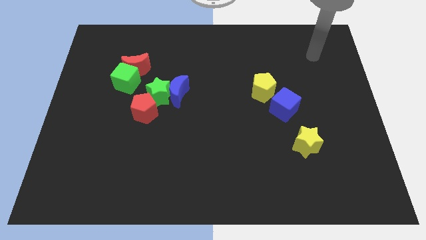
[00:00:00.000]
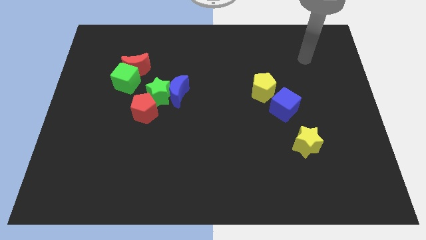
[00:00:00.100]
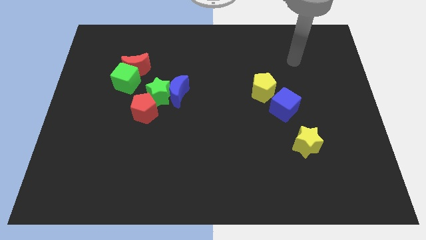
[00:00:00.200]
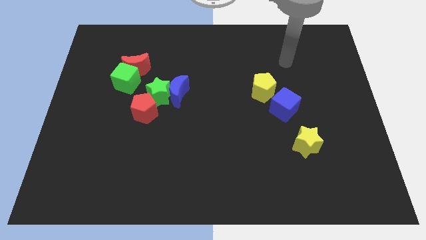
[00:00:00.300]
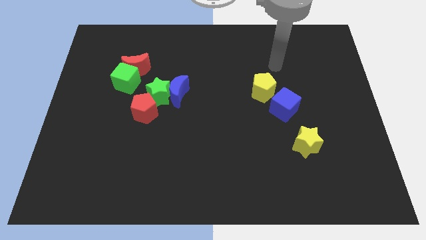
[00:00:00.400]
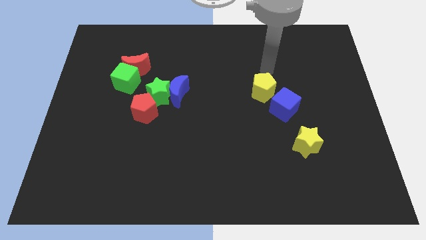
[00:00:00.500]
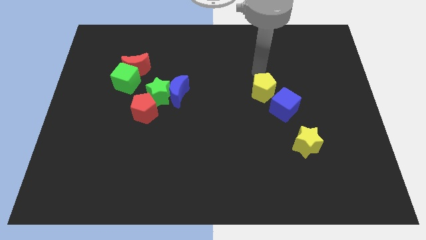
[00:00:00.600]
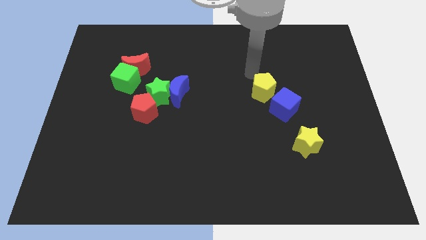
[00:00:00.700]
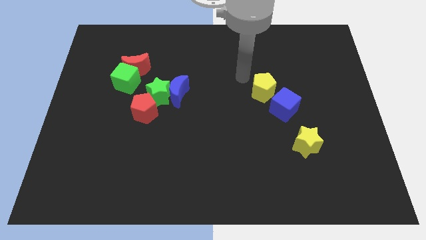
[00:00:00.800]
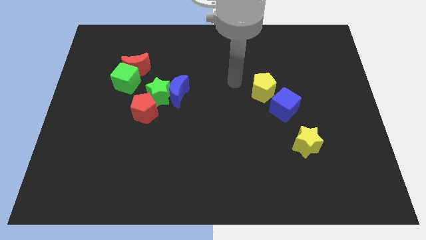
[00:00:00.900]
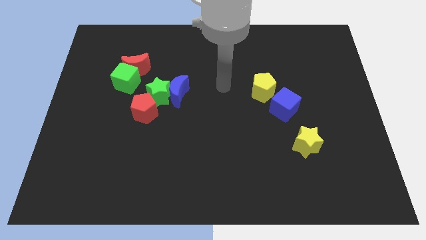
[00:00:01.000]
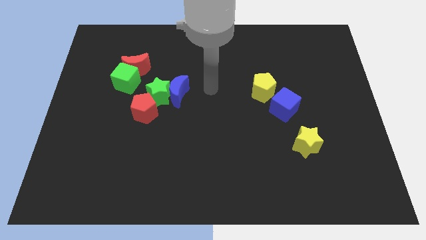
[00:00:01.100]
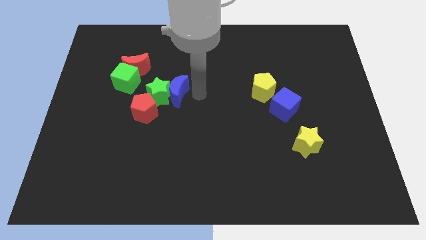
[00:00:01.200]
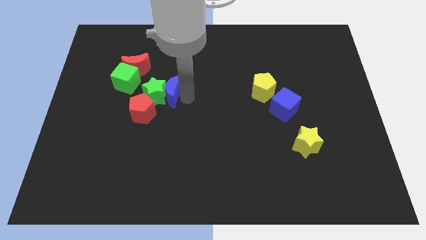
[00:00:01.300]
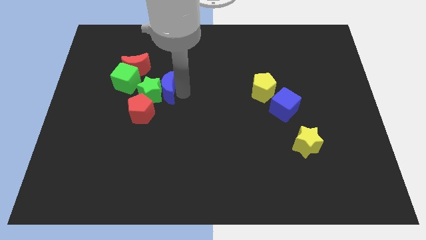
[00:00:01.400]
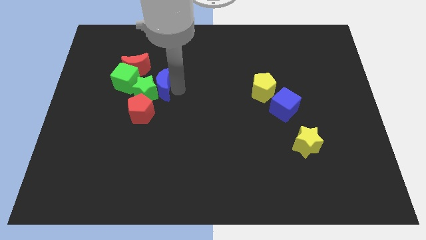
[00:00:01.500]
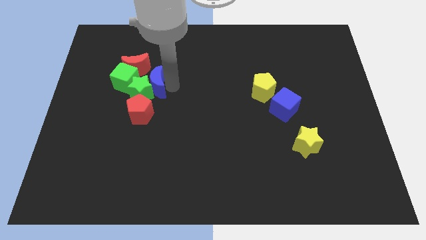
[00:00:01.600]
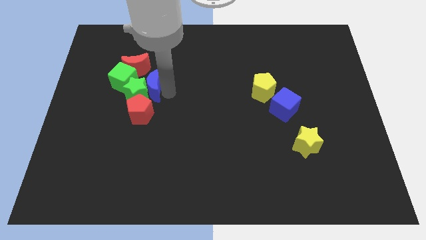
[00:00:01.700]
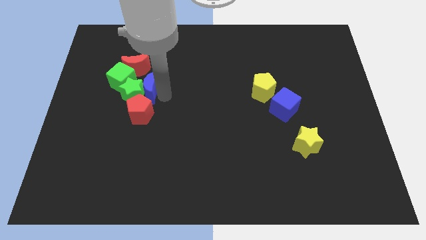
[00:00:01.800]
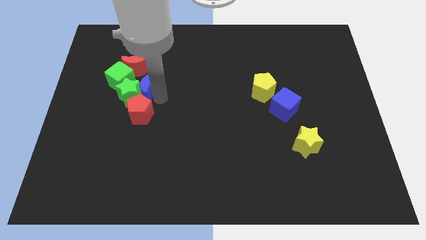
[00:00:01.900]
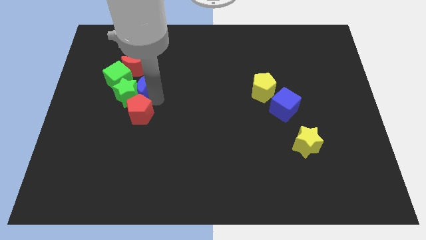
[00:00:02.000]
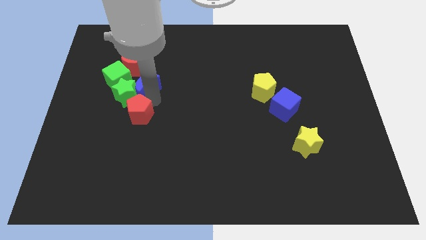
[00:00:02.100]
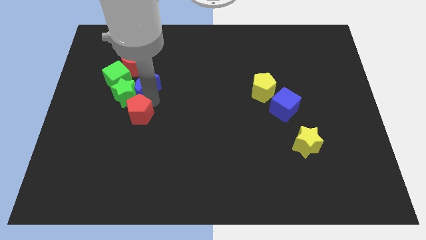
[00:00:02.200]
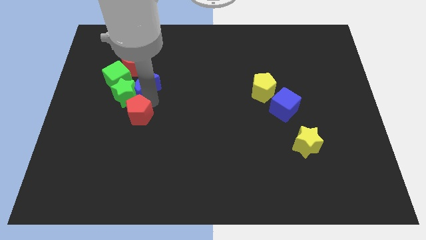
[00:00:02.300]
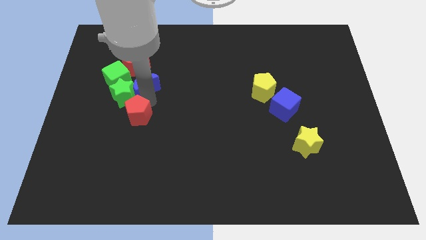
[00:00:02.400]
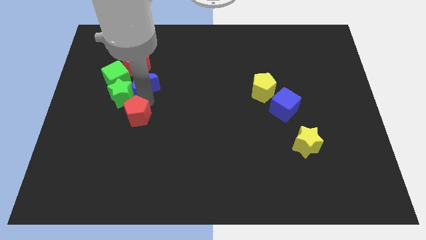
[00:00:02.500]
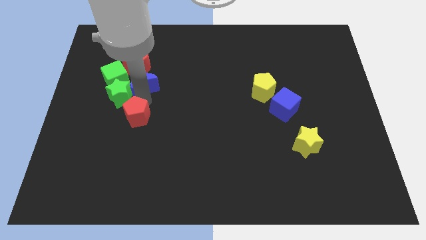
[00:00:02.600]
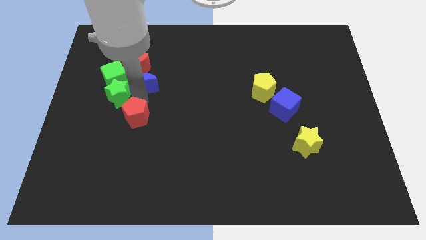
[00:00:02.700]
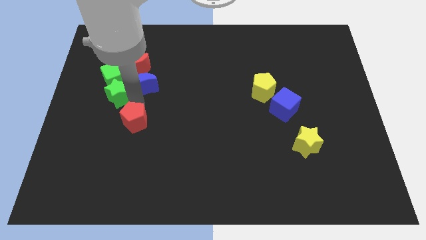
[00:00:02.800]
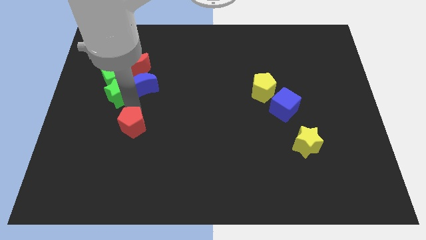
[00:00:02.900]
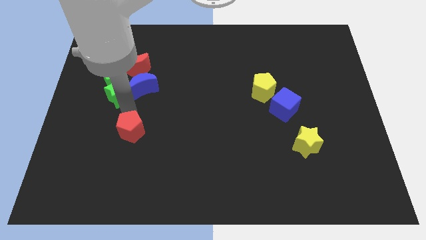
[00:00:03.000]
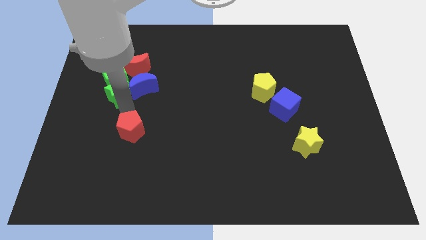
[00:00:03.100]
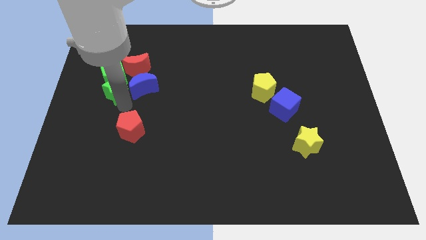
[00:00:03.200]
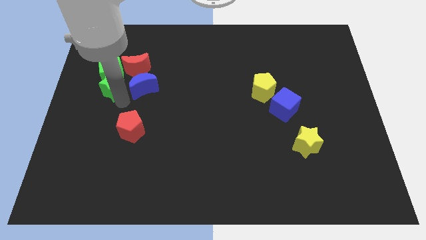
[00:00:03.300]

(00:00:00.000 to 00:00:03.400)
push the green star somewhat upwards and left diagonally

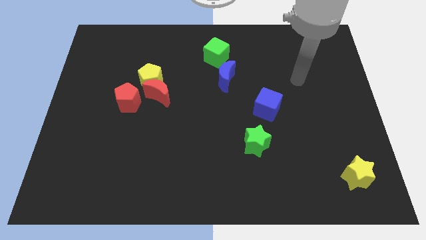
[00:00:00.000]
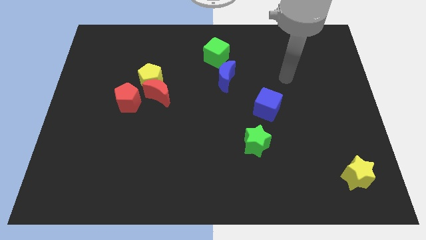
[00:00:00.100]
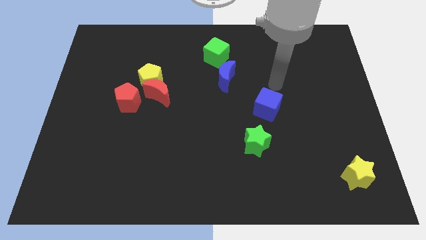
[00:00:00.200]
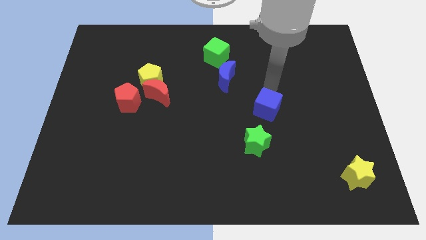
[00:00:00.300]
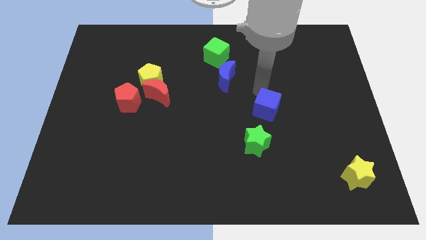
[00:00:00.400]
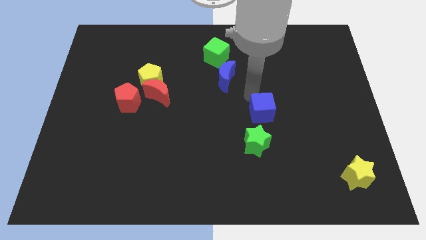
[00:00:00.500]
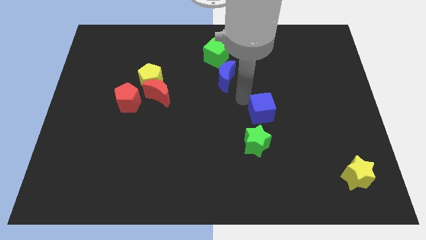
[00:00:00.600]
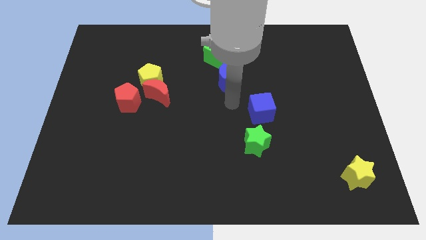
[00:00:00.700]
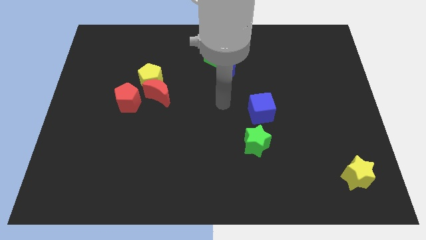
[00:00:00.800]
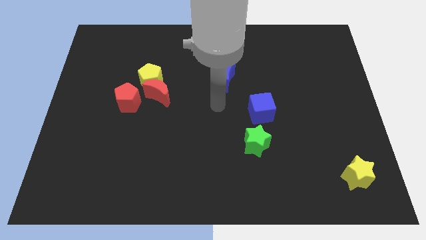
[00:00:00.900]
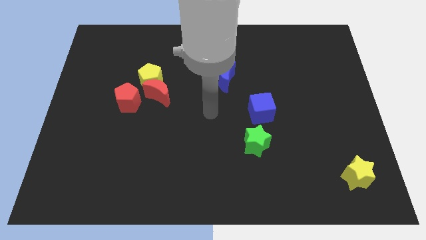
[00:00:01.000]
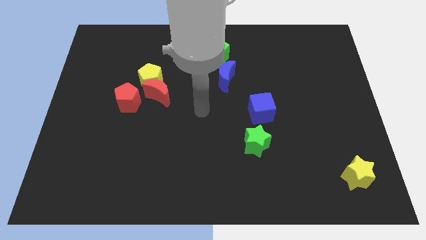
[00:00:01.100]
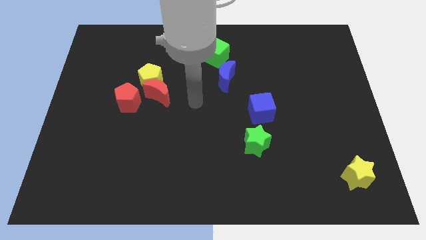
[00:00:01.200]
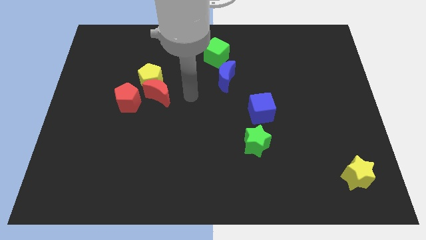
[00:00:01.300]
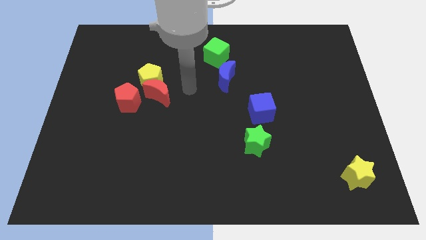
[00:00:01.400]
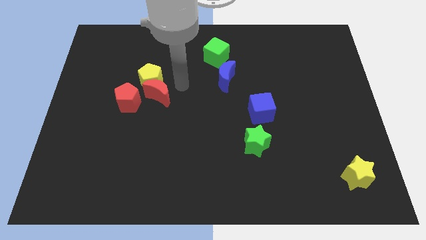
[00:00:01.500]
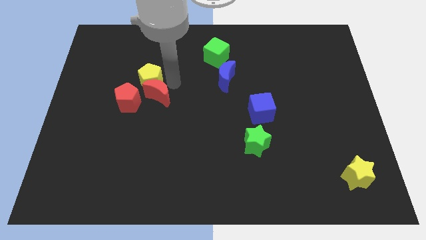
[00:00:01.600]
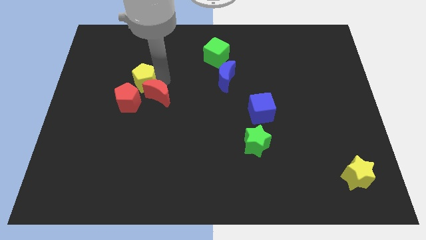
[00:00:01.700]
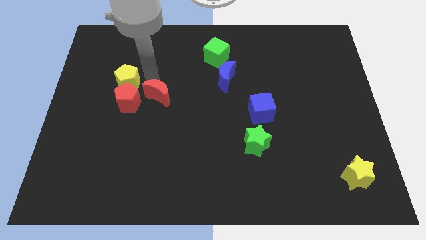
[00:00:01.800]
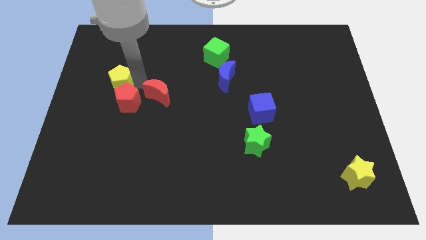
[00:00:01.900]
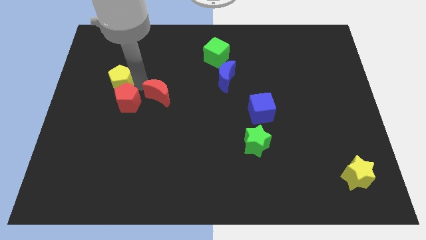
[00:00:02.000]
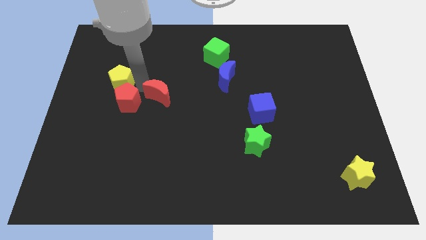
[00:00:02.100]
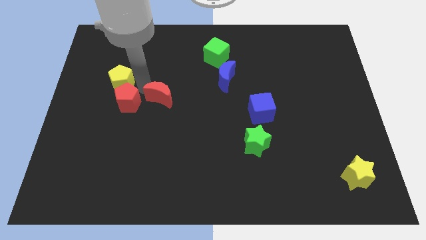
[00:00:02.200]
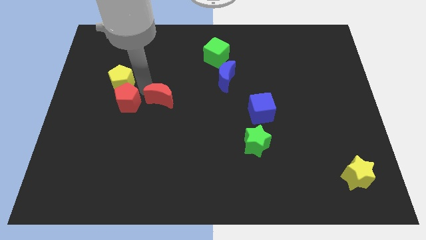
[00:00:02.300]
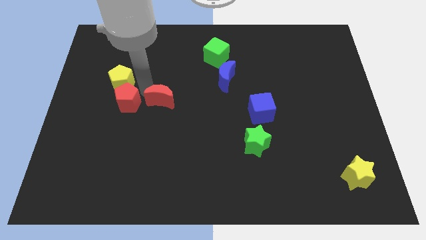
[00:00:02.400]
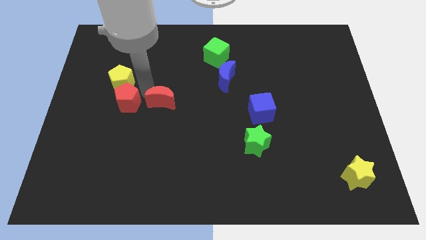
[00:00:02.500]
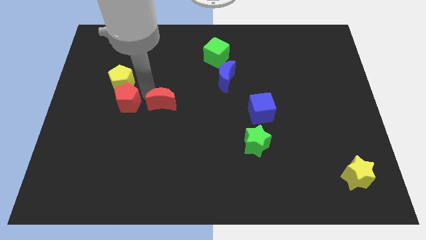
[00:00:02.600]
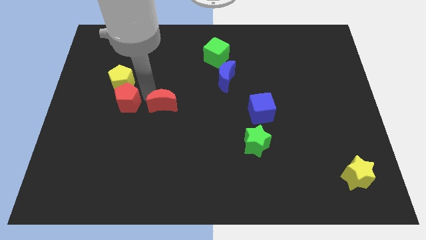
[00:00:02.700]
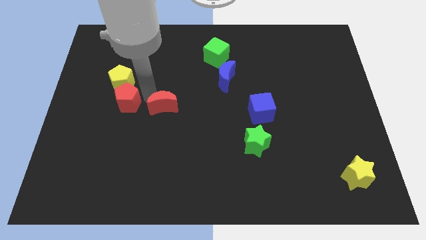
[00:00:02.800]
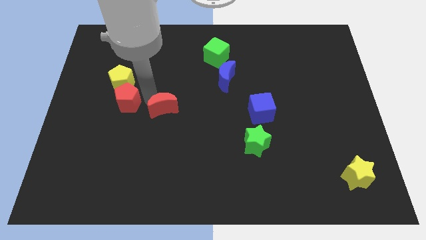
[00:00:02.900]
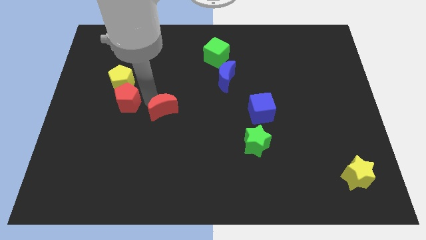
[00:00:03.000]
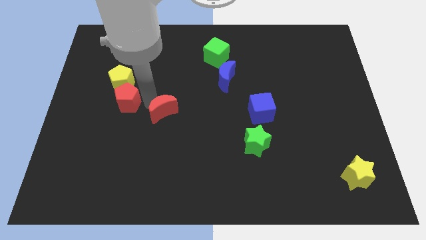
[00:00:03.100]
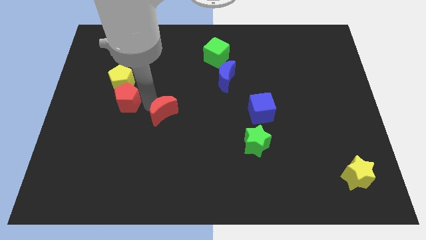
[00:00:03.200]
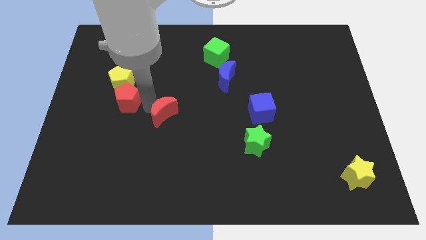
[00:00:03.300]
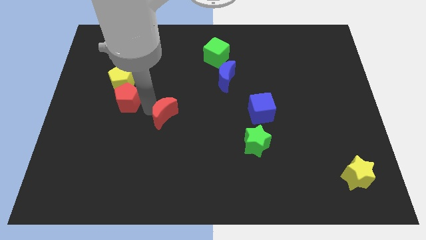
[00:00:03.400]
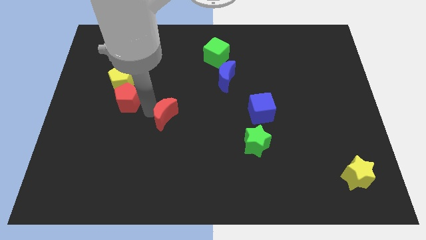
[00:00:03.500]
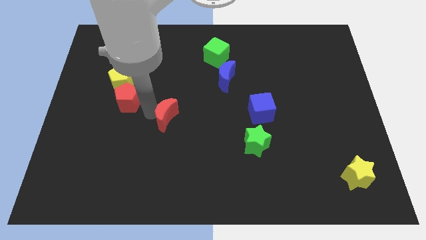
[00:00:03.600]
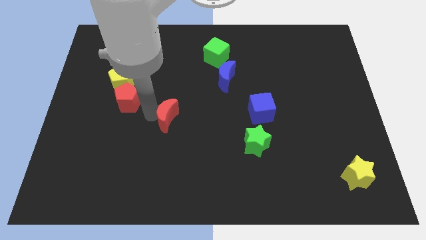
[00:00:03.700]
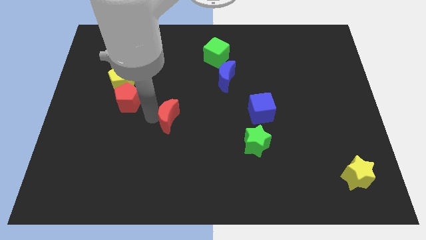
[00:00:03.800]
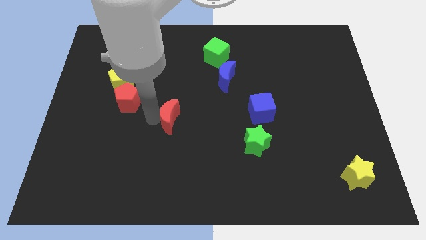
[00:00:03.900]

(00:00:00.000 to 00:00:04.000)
slide the red moon downwards and then right slightly

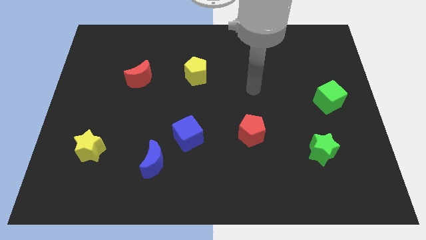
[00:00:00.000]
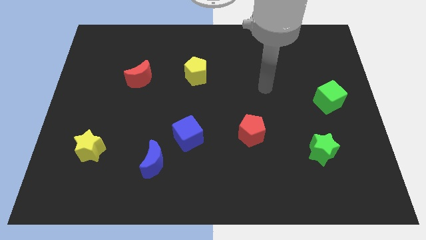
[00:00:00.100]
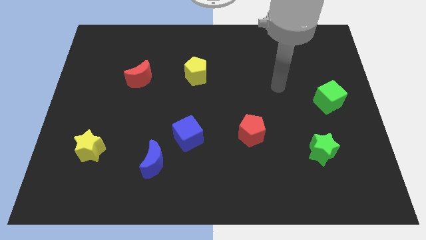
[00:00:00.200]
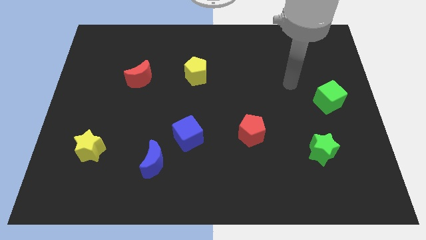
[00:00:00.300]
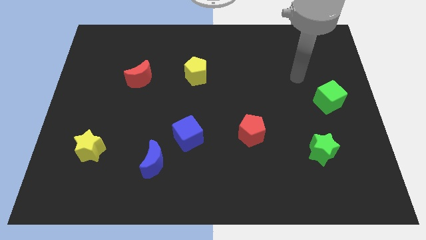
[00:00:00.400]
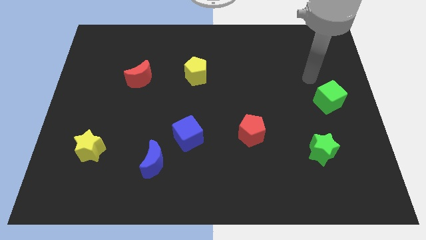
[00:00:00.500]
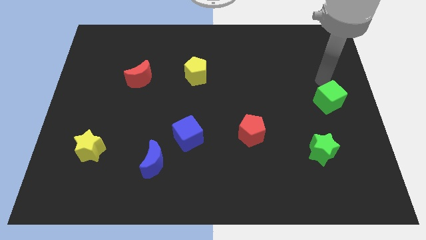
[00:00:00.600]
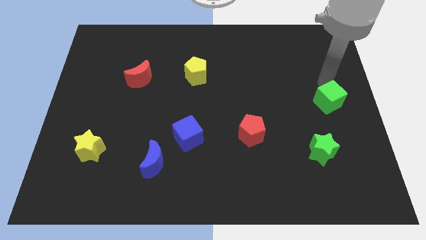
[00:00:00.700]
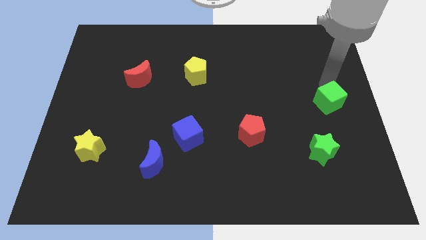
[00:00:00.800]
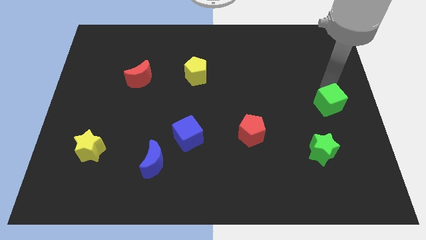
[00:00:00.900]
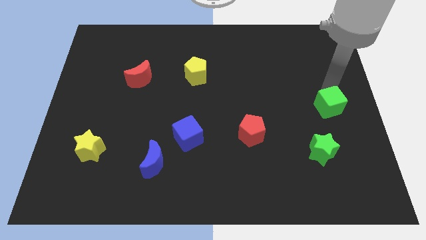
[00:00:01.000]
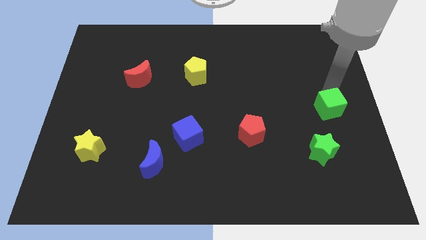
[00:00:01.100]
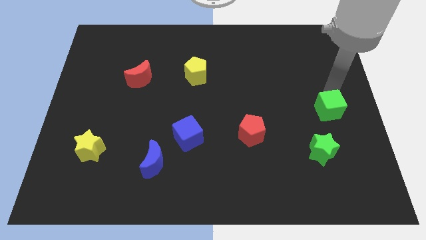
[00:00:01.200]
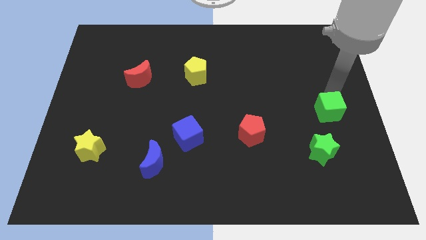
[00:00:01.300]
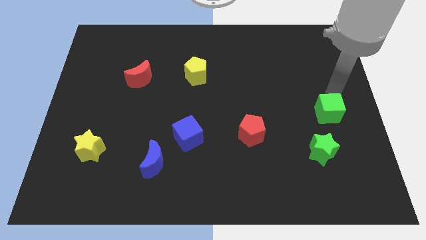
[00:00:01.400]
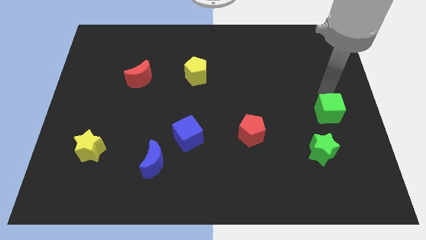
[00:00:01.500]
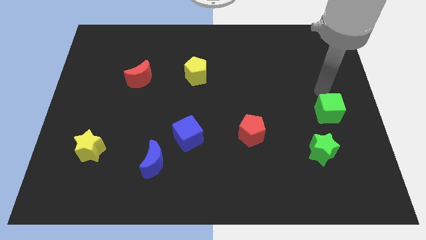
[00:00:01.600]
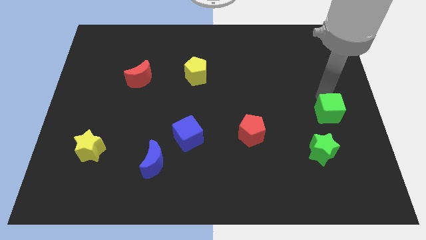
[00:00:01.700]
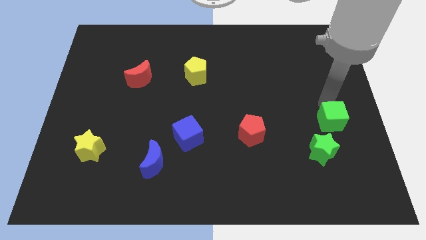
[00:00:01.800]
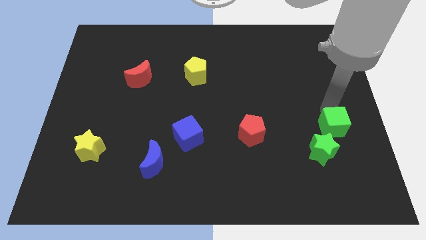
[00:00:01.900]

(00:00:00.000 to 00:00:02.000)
move the green cube a bit down
